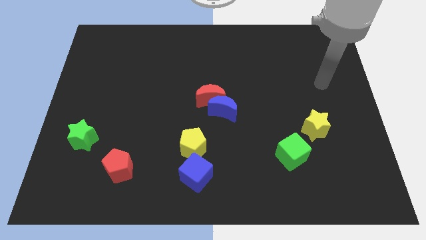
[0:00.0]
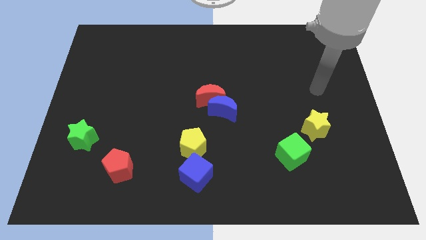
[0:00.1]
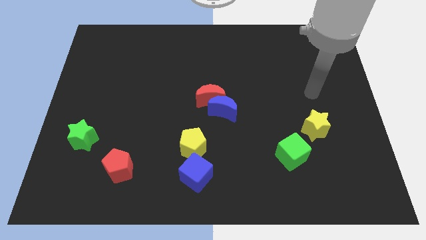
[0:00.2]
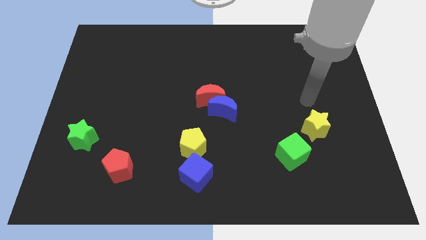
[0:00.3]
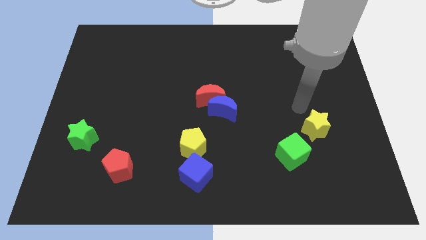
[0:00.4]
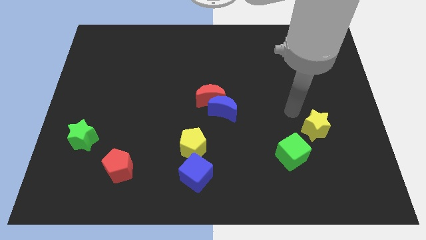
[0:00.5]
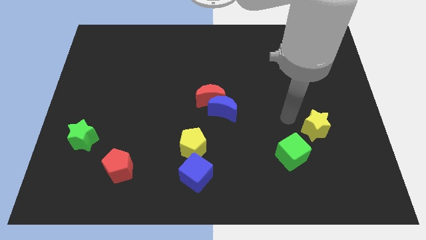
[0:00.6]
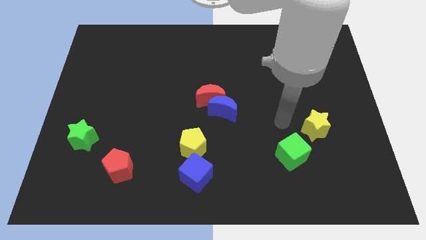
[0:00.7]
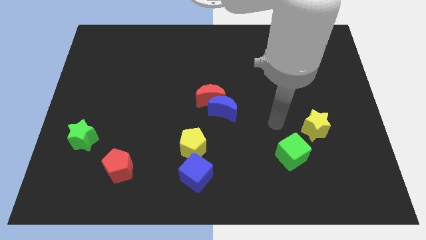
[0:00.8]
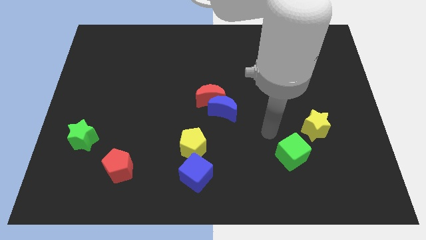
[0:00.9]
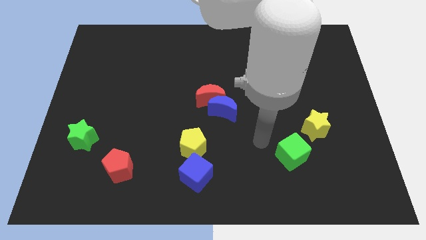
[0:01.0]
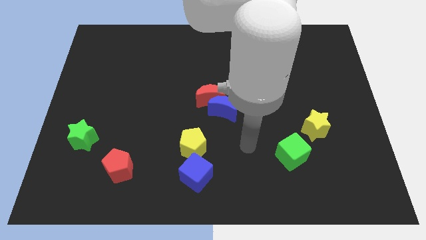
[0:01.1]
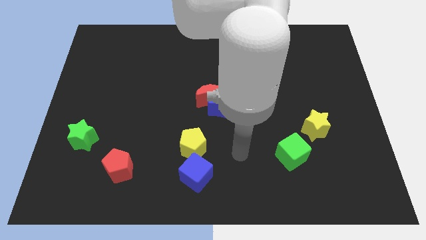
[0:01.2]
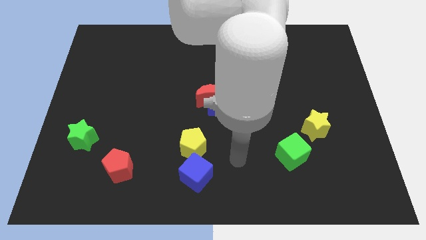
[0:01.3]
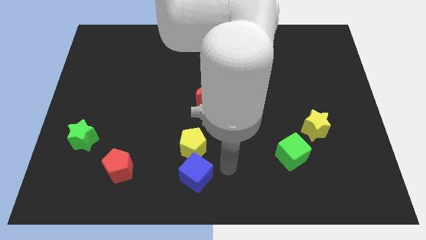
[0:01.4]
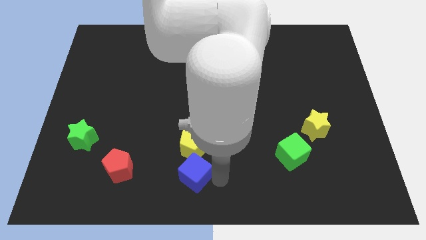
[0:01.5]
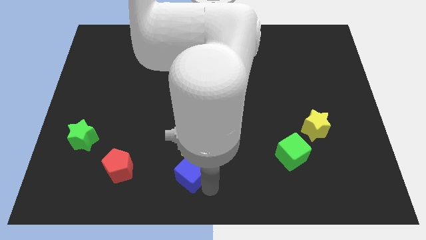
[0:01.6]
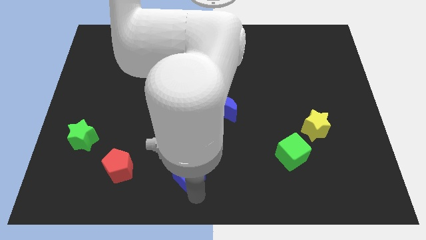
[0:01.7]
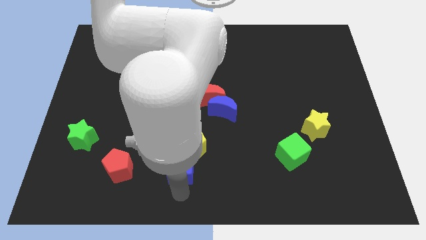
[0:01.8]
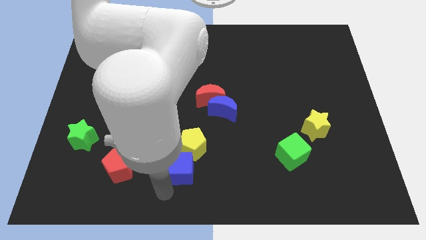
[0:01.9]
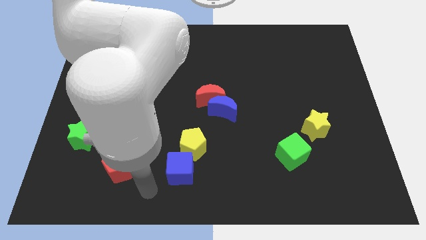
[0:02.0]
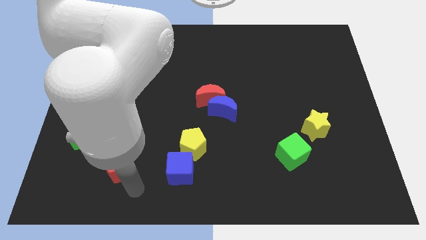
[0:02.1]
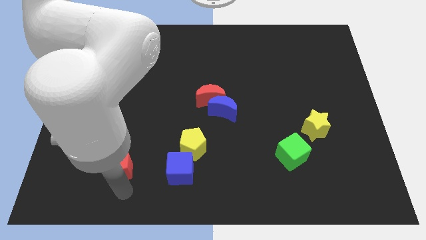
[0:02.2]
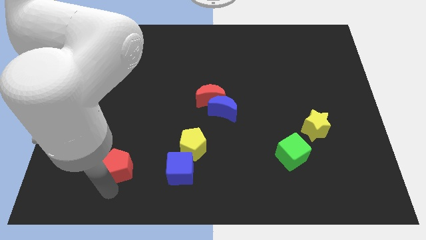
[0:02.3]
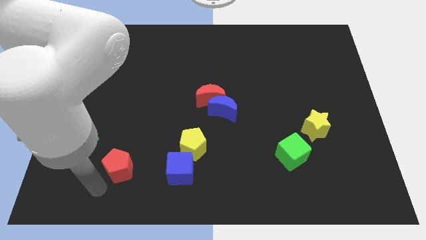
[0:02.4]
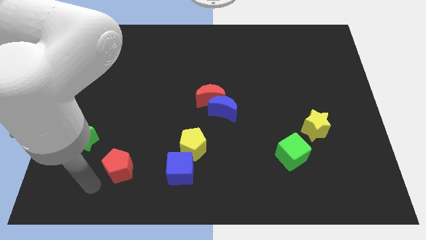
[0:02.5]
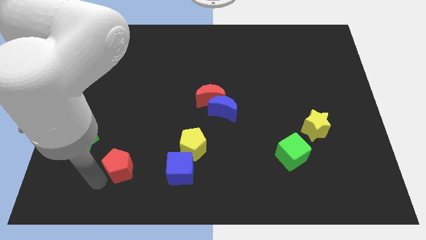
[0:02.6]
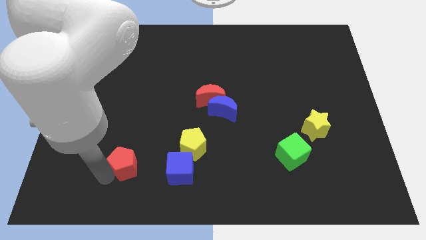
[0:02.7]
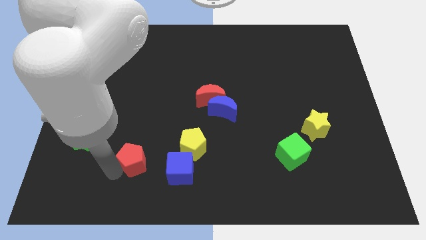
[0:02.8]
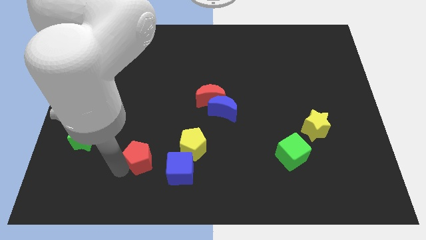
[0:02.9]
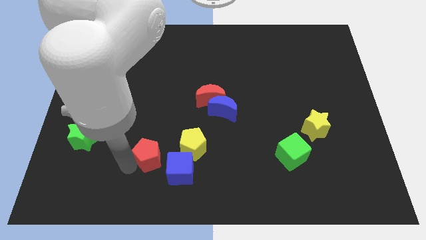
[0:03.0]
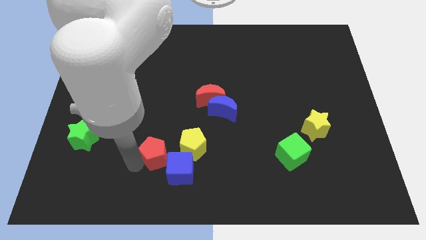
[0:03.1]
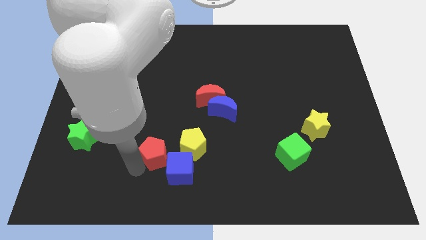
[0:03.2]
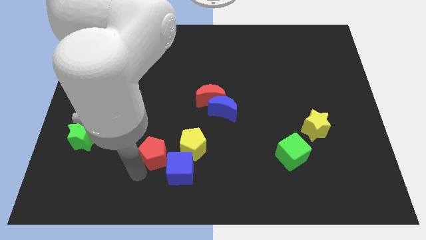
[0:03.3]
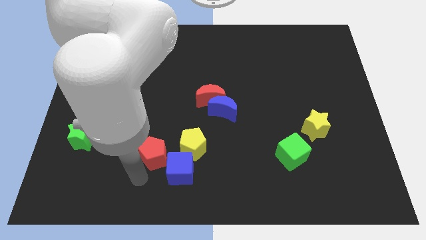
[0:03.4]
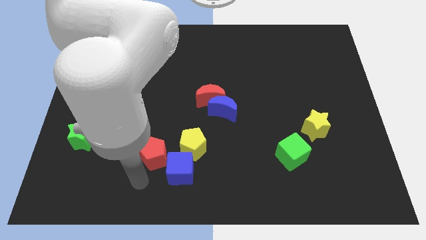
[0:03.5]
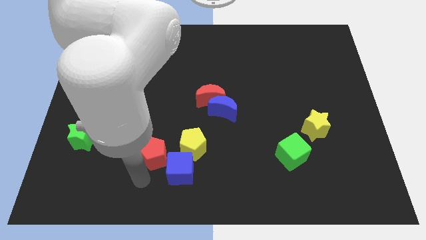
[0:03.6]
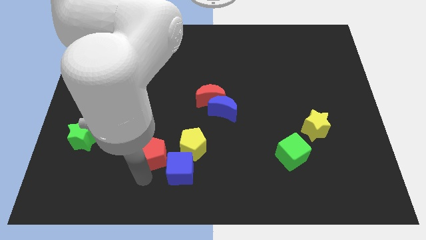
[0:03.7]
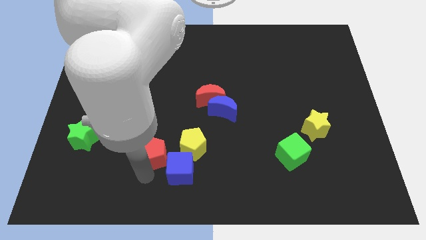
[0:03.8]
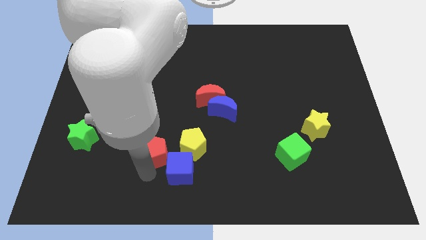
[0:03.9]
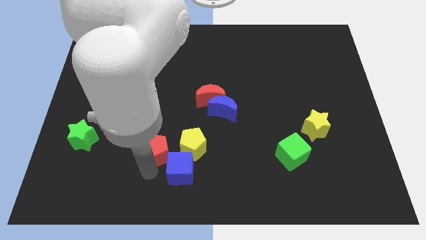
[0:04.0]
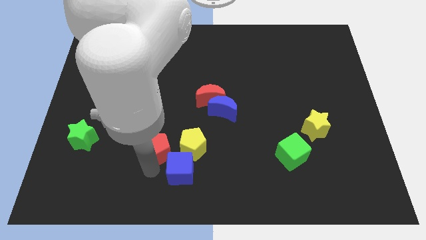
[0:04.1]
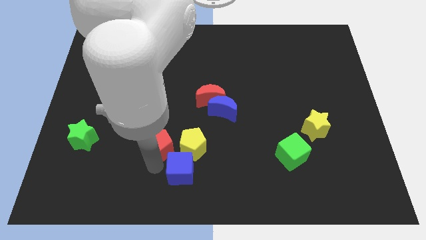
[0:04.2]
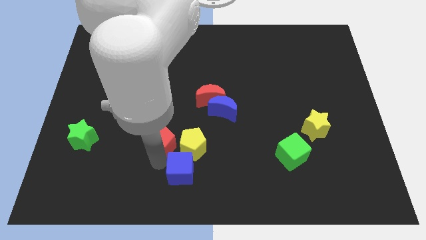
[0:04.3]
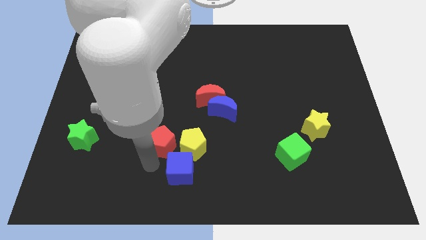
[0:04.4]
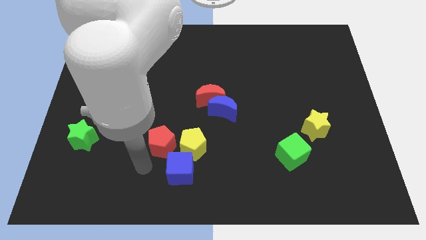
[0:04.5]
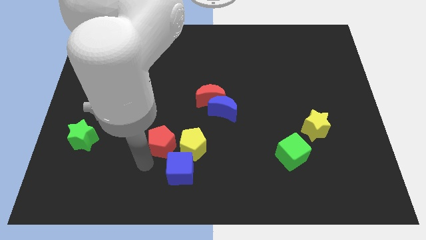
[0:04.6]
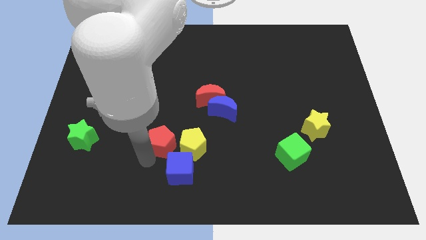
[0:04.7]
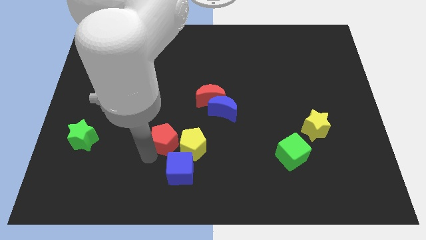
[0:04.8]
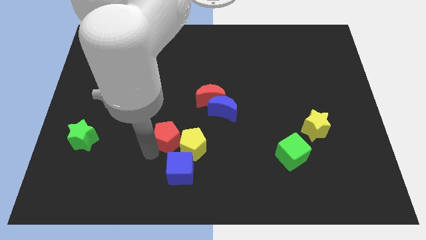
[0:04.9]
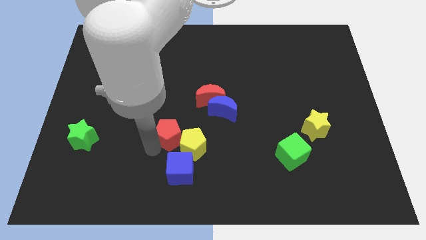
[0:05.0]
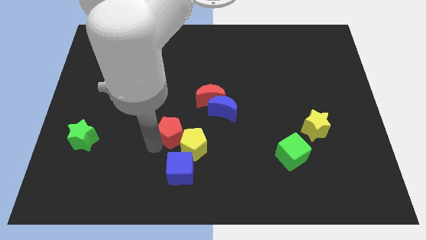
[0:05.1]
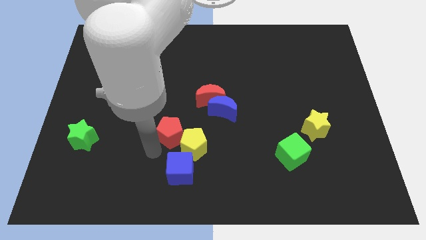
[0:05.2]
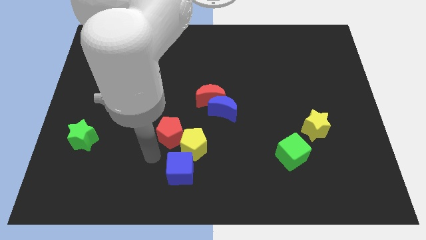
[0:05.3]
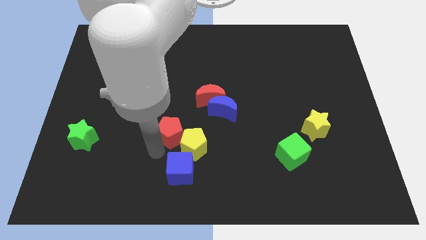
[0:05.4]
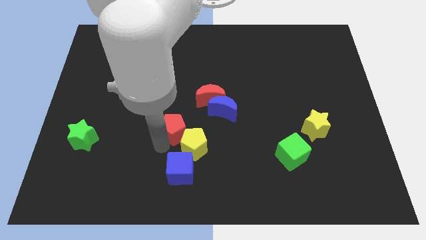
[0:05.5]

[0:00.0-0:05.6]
slide the red pentagon to the bottom left side of the red moon

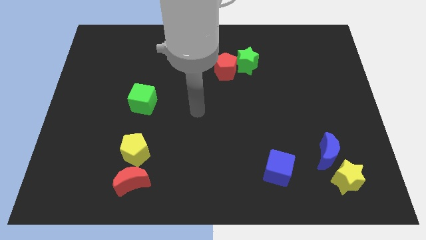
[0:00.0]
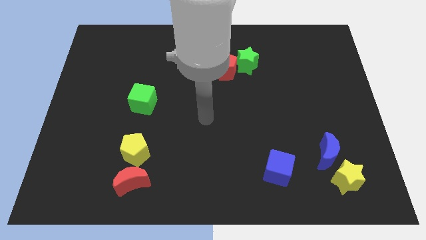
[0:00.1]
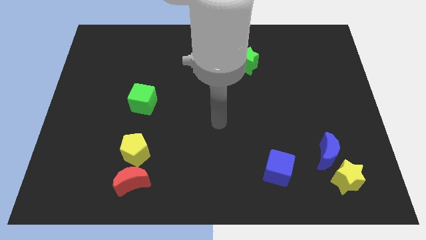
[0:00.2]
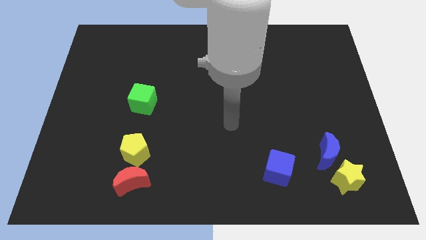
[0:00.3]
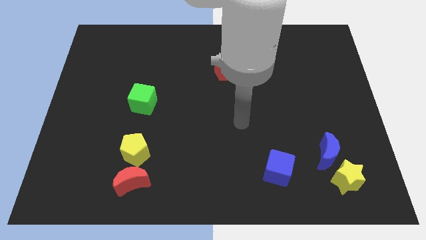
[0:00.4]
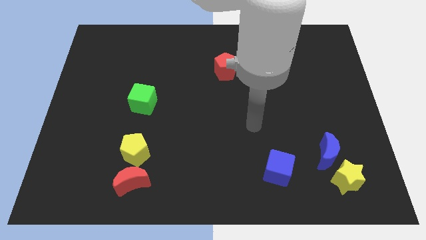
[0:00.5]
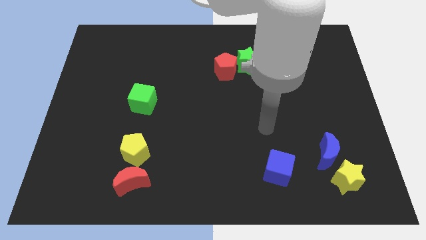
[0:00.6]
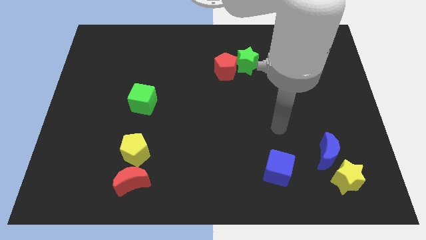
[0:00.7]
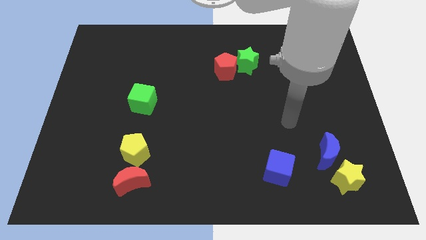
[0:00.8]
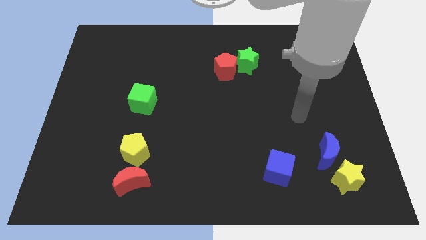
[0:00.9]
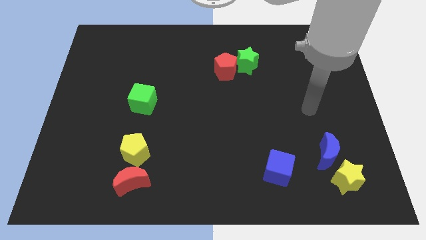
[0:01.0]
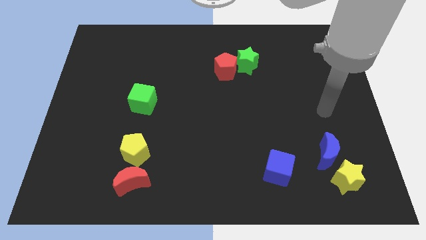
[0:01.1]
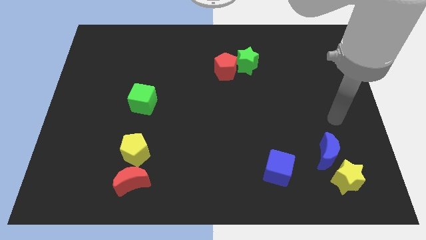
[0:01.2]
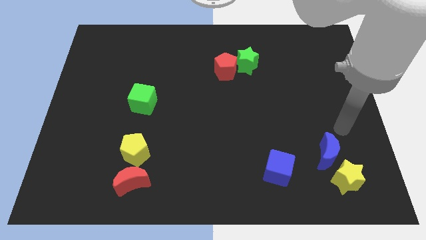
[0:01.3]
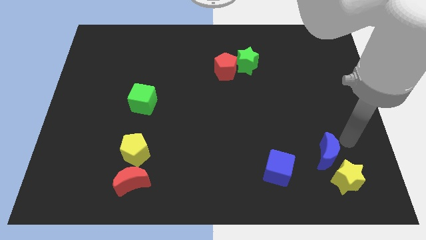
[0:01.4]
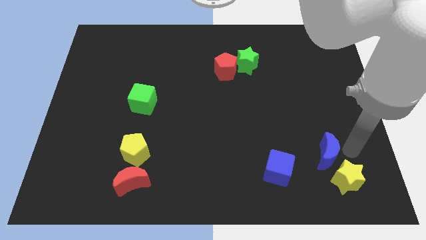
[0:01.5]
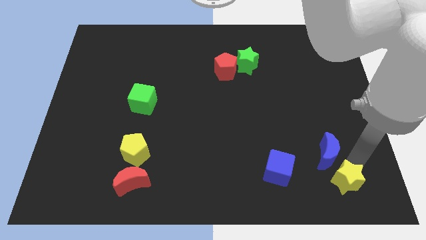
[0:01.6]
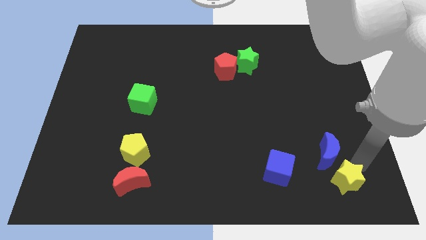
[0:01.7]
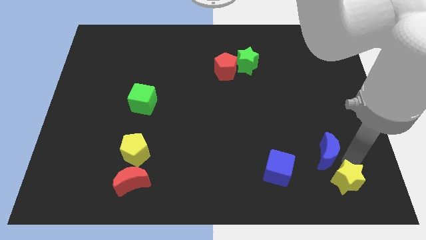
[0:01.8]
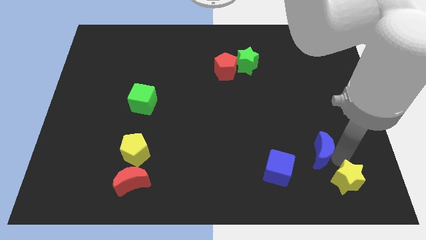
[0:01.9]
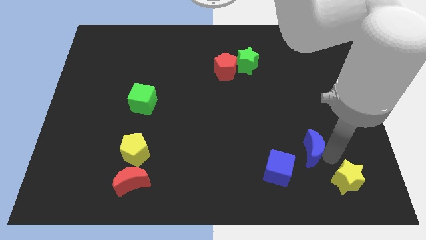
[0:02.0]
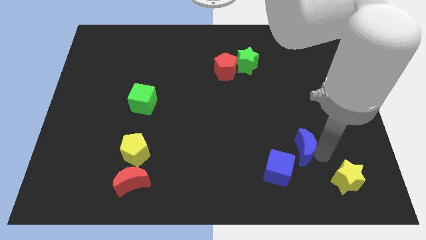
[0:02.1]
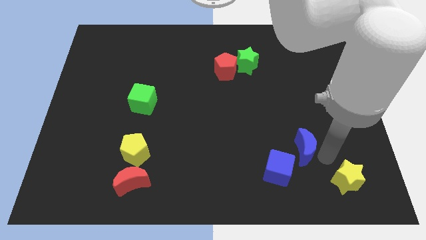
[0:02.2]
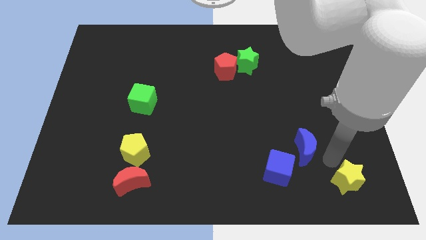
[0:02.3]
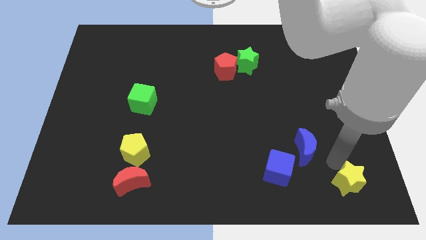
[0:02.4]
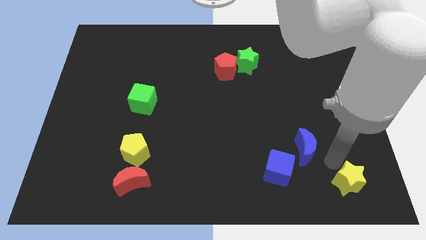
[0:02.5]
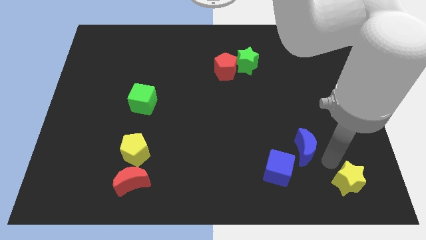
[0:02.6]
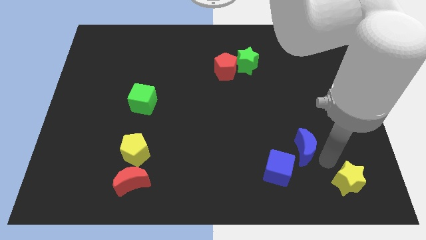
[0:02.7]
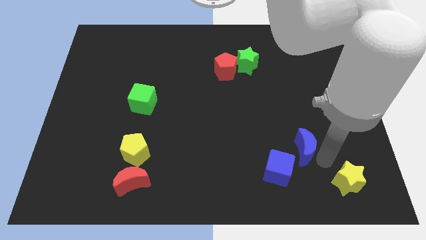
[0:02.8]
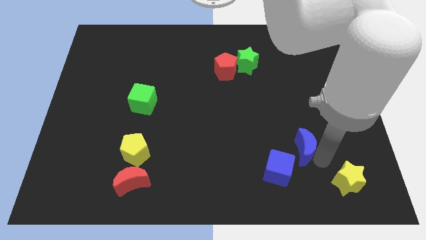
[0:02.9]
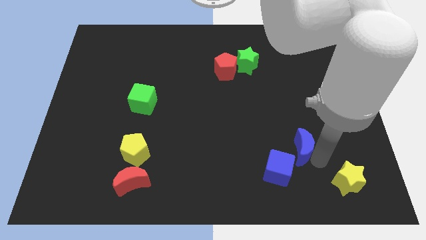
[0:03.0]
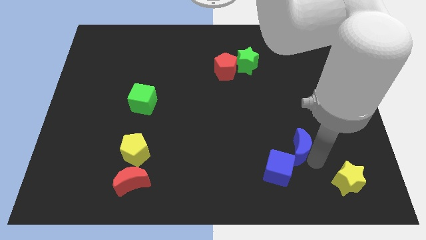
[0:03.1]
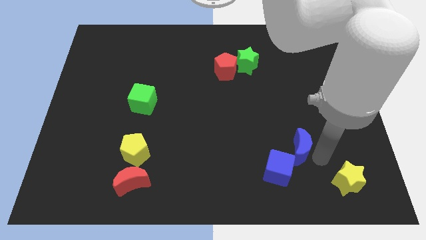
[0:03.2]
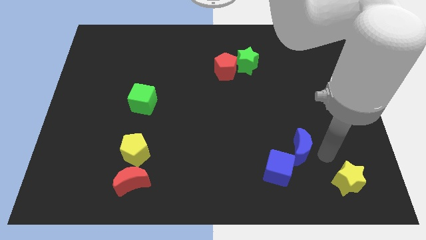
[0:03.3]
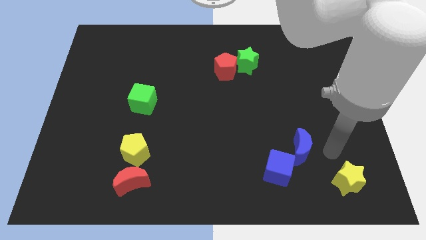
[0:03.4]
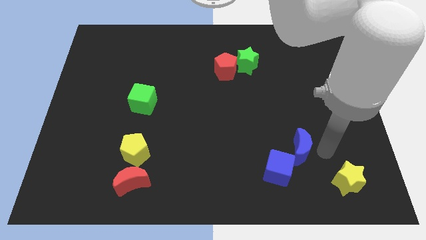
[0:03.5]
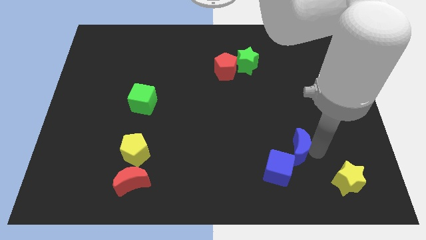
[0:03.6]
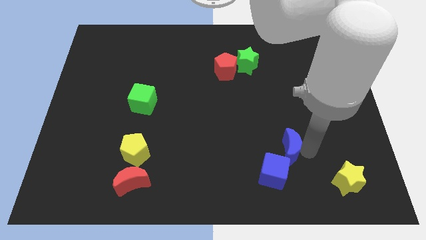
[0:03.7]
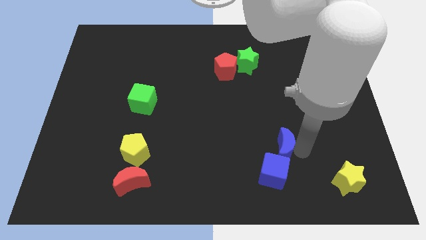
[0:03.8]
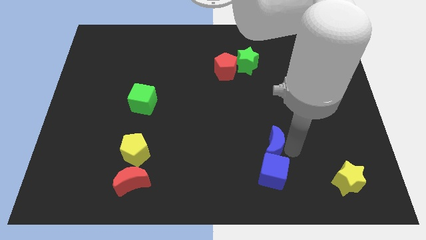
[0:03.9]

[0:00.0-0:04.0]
put the blue moon diagonally up and to the left of the blue cube
